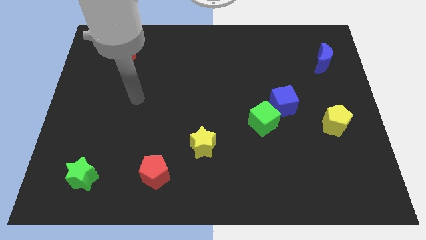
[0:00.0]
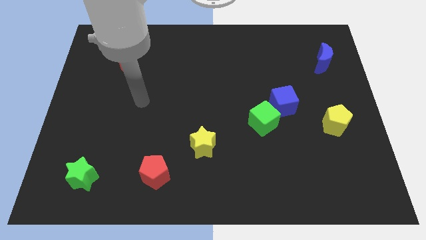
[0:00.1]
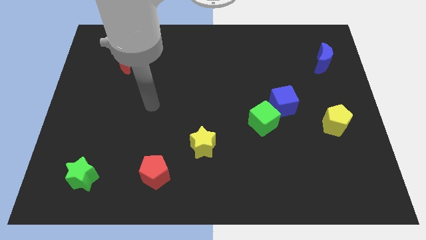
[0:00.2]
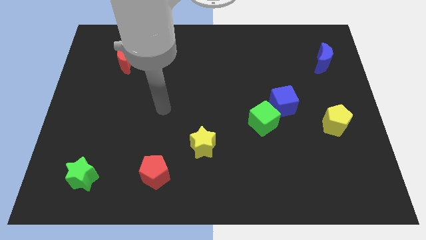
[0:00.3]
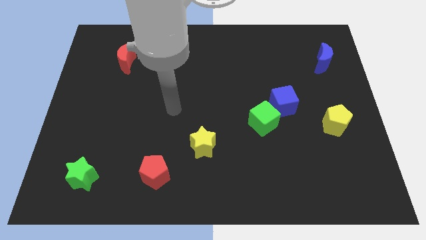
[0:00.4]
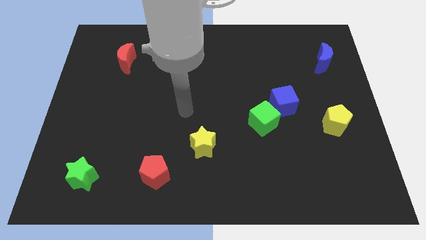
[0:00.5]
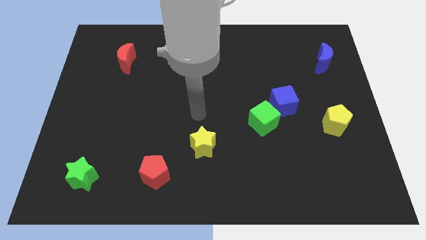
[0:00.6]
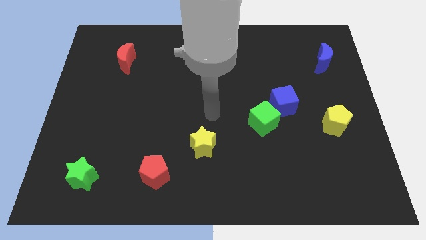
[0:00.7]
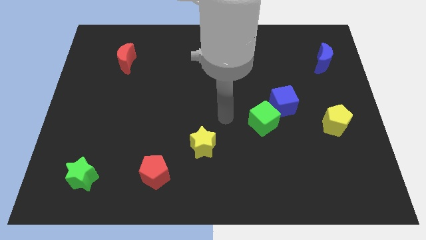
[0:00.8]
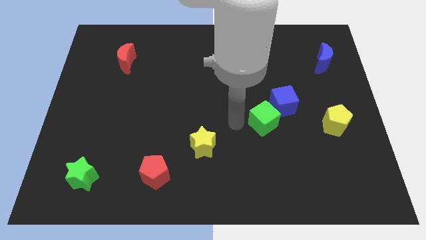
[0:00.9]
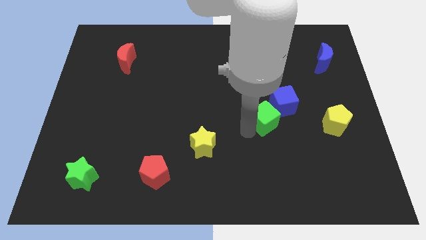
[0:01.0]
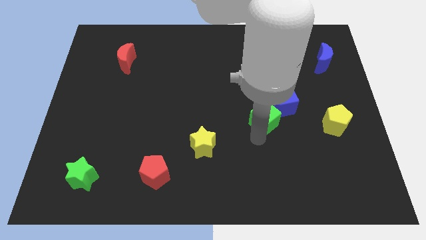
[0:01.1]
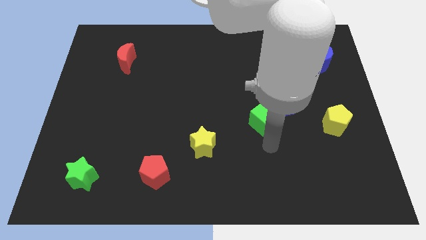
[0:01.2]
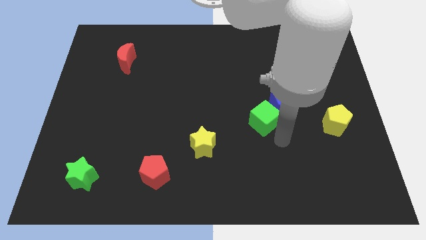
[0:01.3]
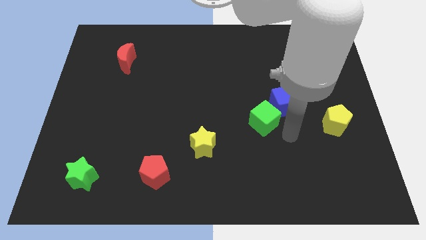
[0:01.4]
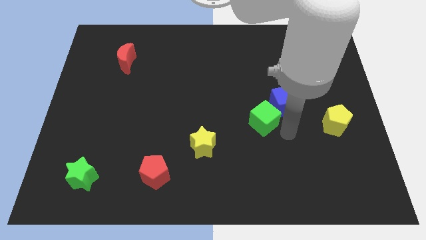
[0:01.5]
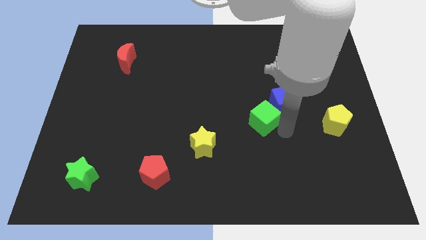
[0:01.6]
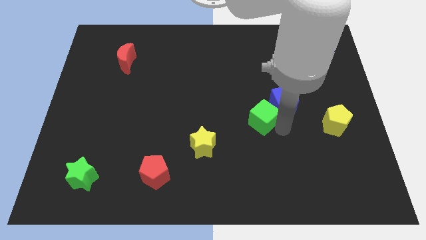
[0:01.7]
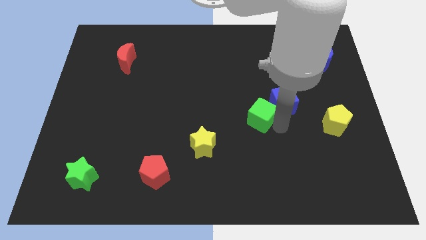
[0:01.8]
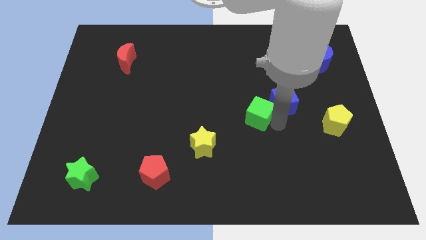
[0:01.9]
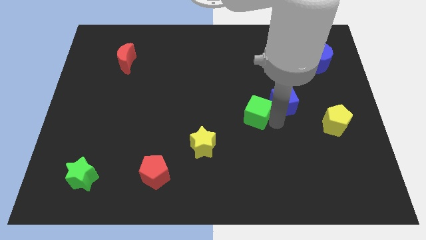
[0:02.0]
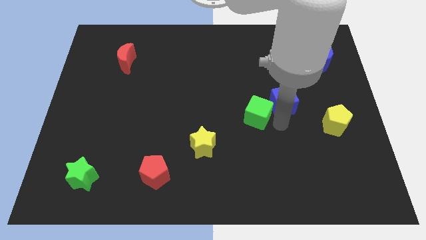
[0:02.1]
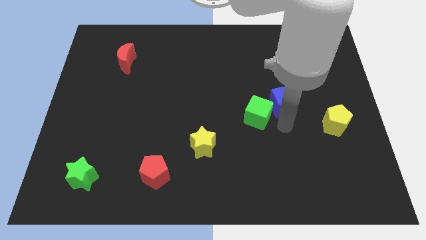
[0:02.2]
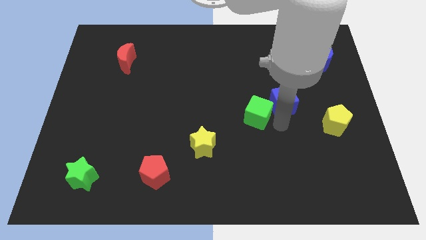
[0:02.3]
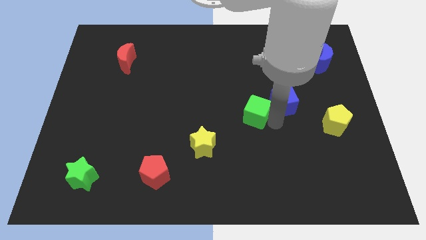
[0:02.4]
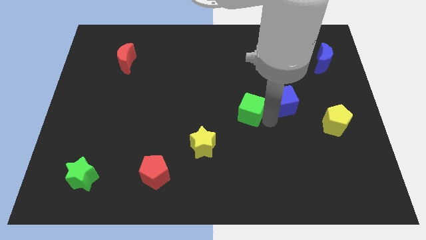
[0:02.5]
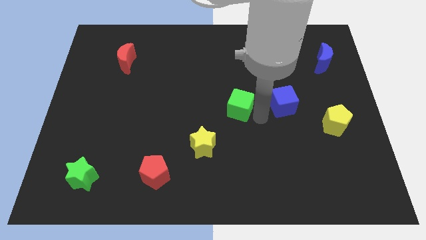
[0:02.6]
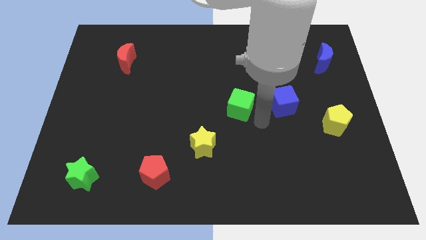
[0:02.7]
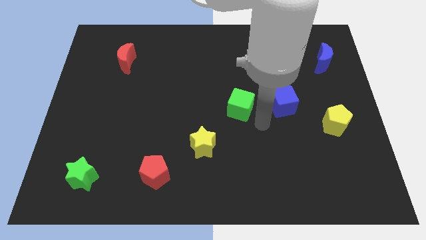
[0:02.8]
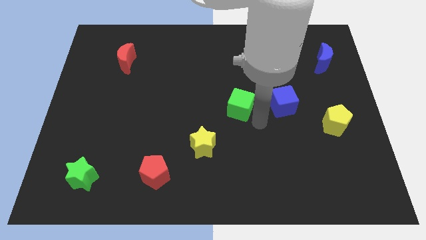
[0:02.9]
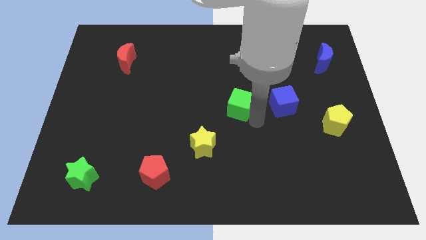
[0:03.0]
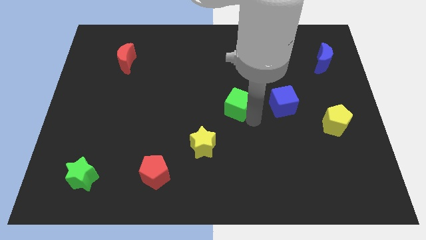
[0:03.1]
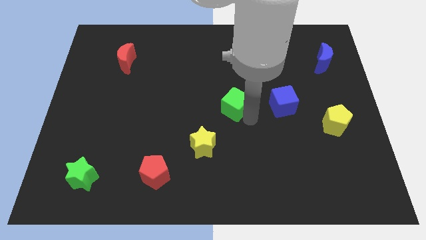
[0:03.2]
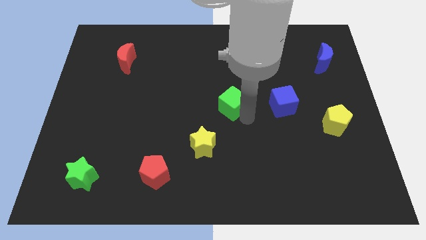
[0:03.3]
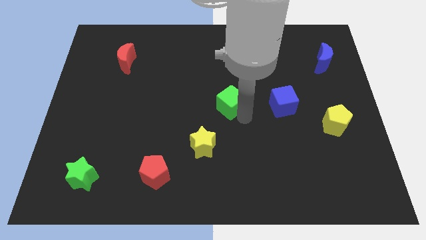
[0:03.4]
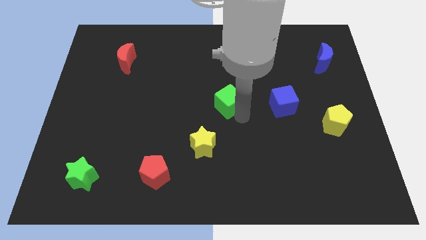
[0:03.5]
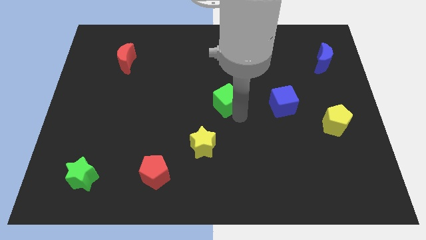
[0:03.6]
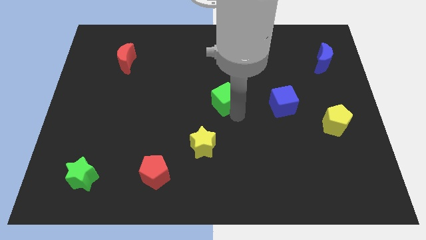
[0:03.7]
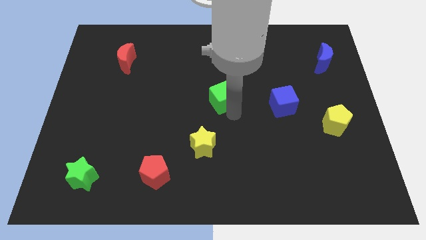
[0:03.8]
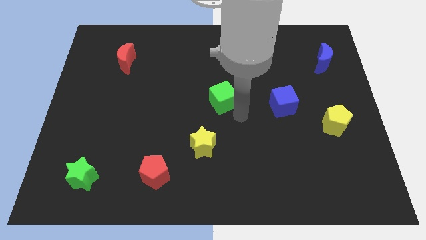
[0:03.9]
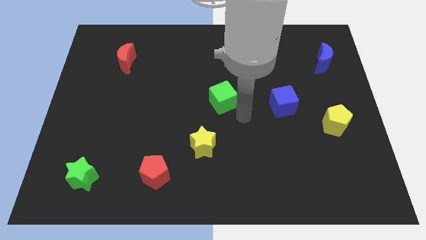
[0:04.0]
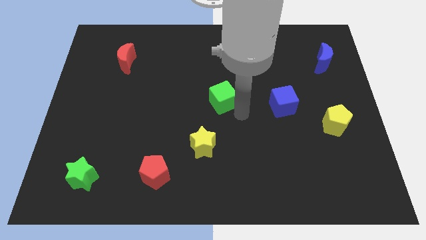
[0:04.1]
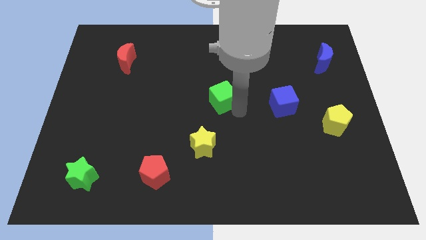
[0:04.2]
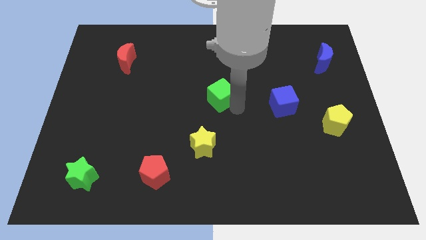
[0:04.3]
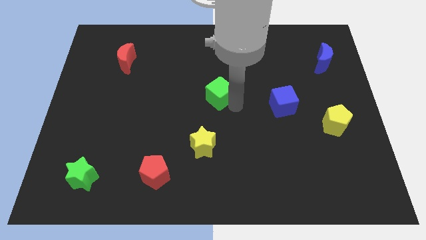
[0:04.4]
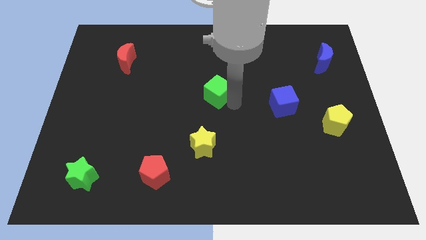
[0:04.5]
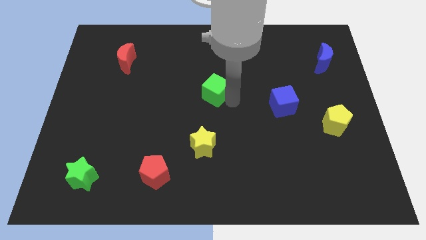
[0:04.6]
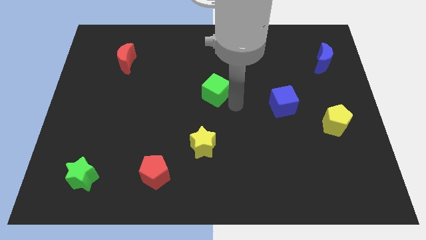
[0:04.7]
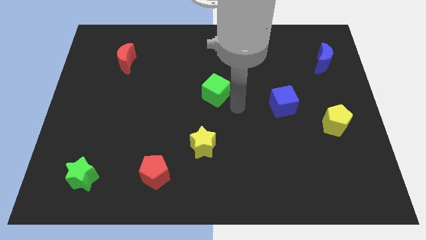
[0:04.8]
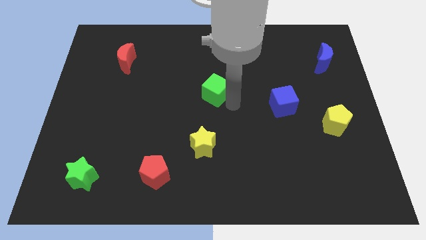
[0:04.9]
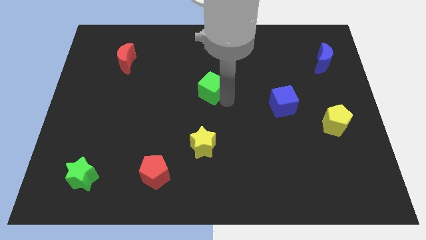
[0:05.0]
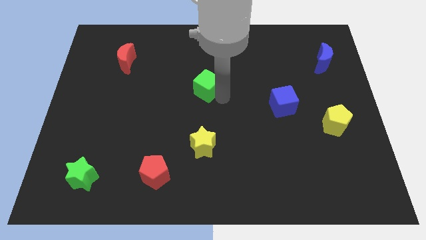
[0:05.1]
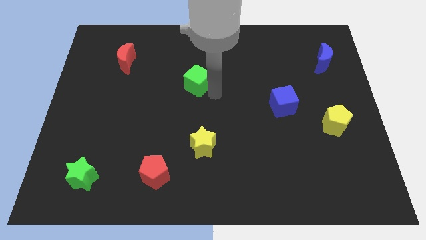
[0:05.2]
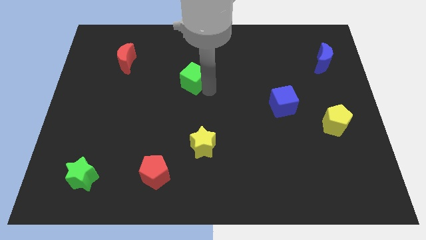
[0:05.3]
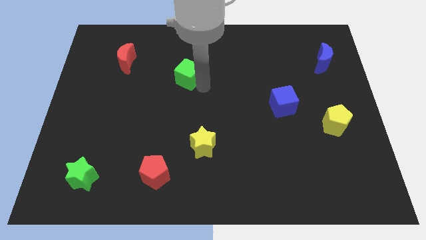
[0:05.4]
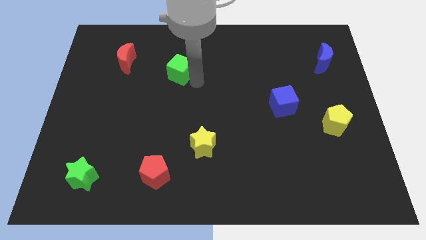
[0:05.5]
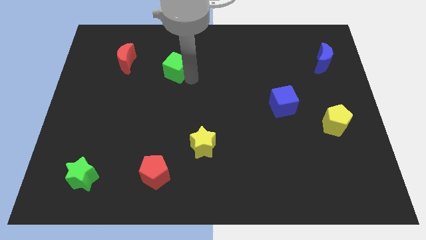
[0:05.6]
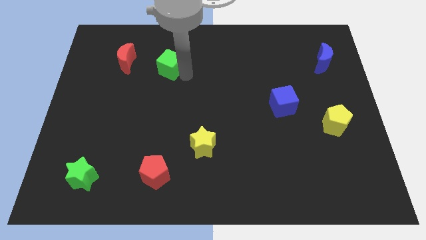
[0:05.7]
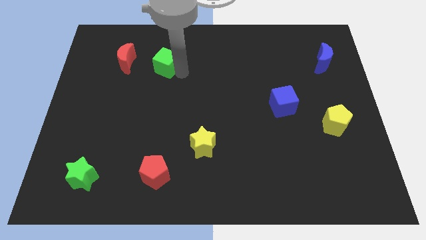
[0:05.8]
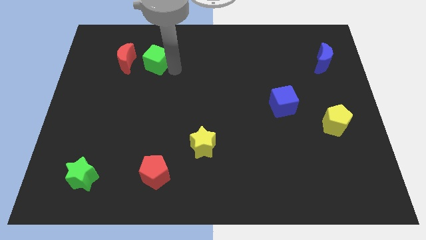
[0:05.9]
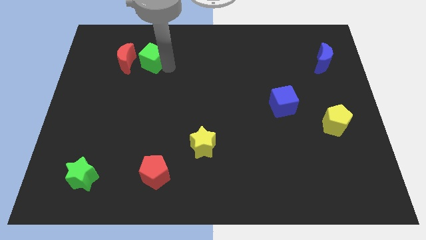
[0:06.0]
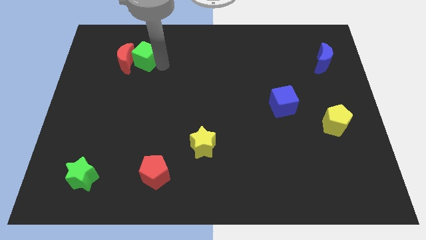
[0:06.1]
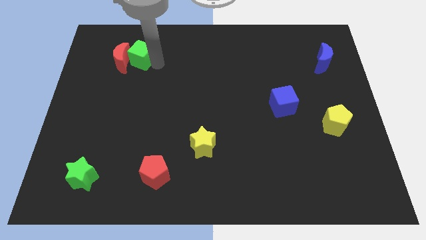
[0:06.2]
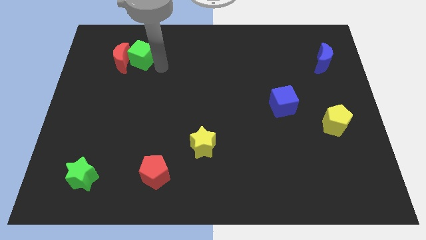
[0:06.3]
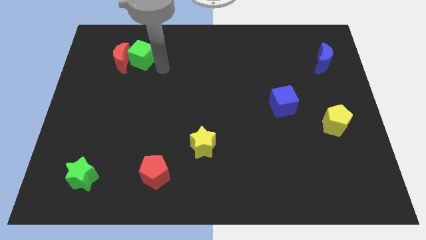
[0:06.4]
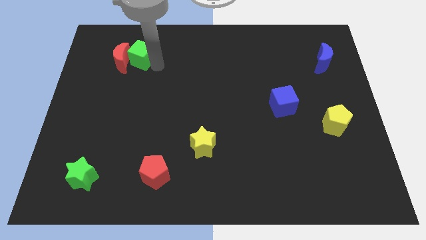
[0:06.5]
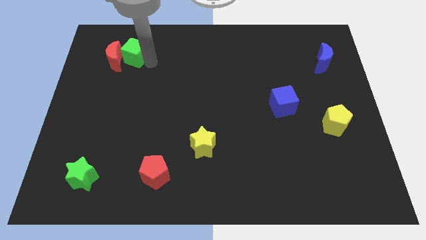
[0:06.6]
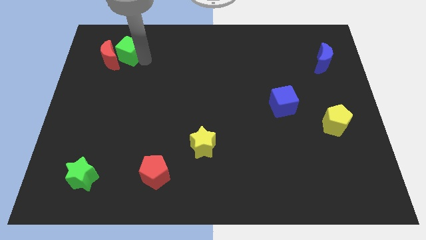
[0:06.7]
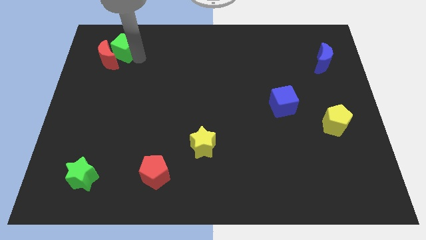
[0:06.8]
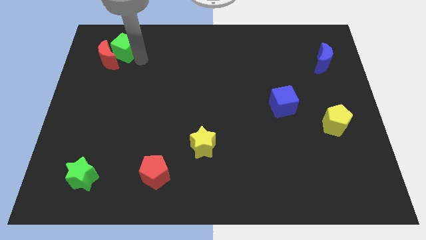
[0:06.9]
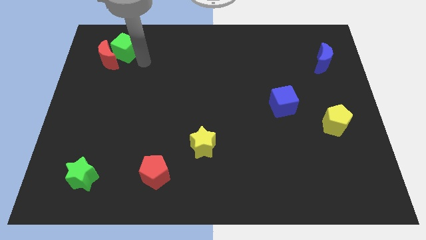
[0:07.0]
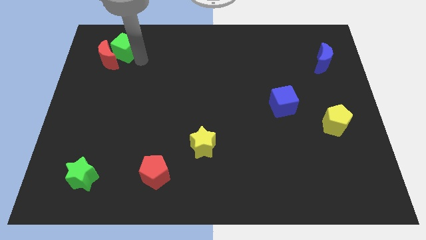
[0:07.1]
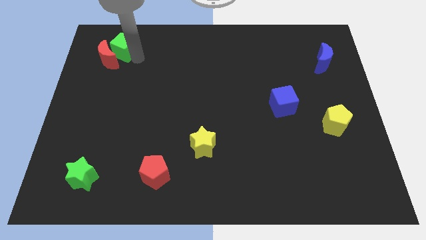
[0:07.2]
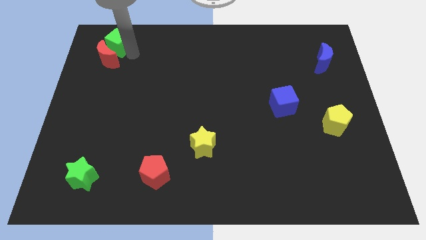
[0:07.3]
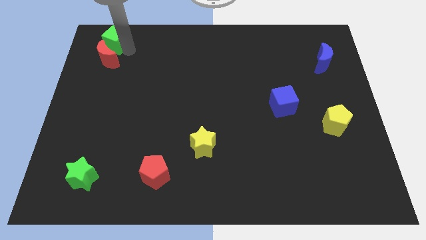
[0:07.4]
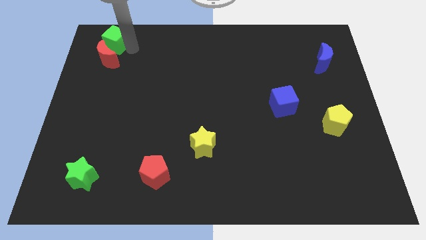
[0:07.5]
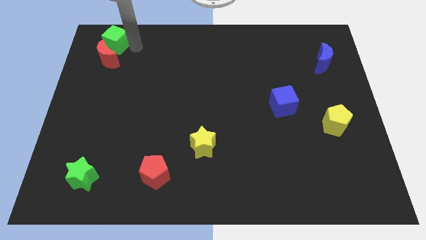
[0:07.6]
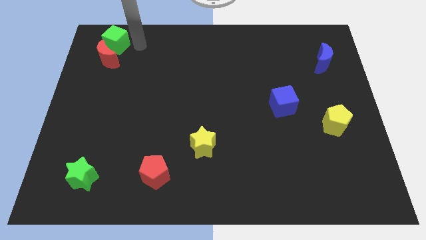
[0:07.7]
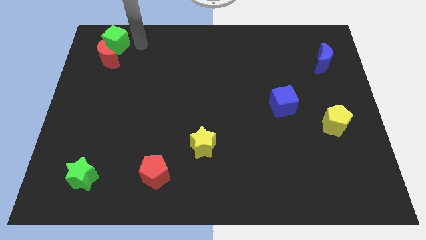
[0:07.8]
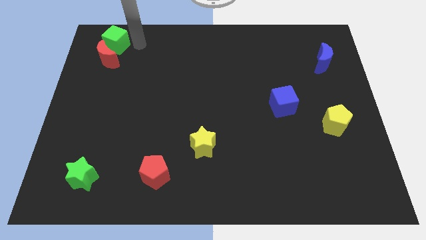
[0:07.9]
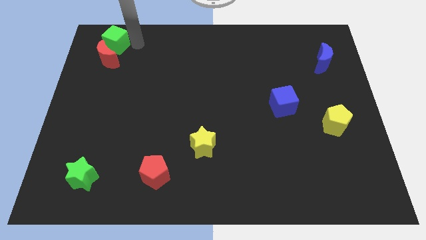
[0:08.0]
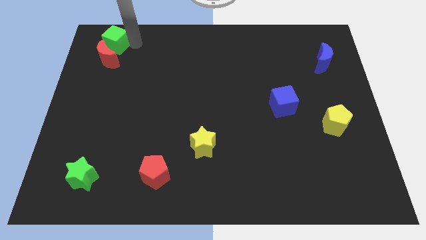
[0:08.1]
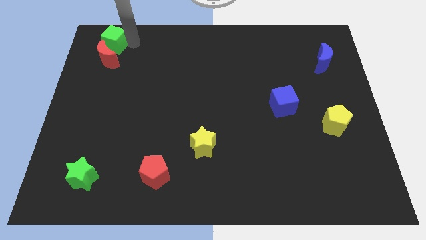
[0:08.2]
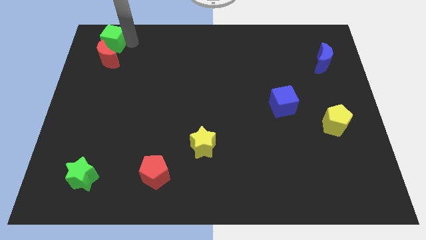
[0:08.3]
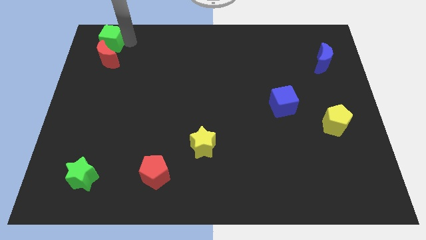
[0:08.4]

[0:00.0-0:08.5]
slide the green cube to the top left
